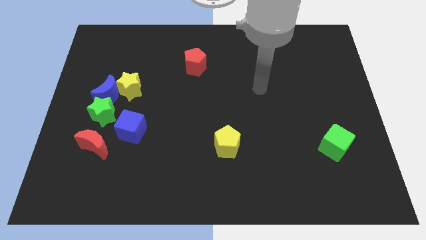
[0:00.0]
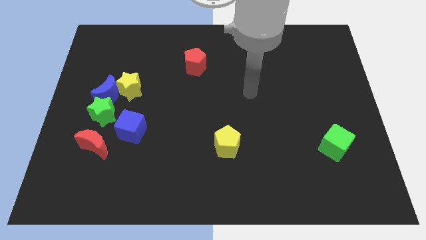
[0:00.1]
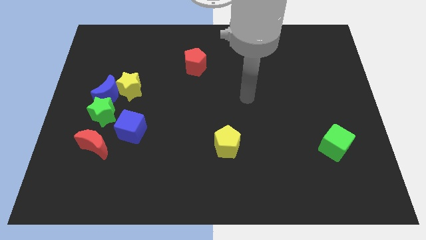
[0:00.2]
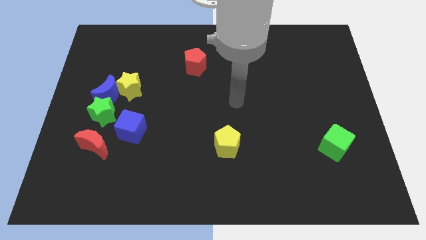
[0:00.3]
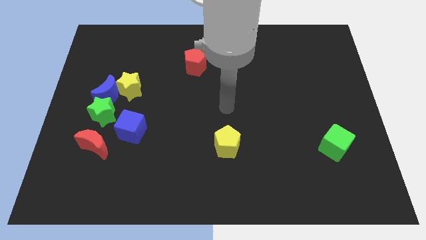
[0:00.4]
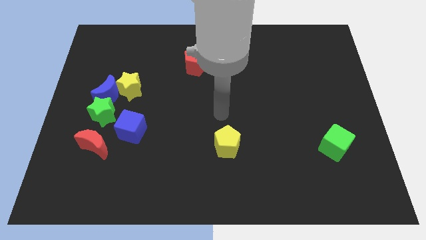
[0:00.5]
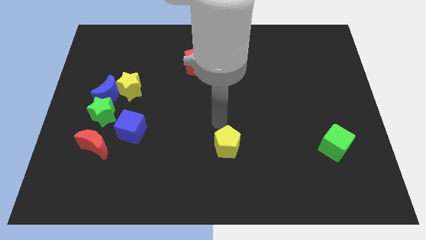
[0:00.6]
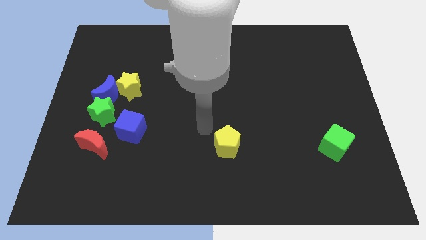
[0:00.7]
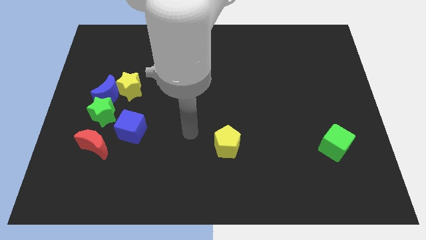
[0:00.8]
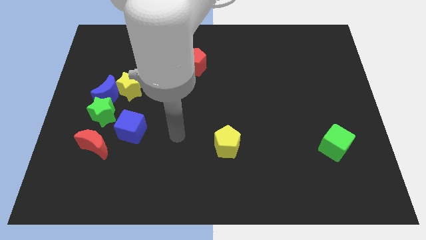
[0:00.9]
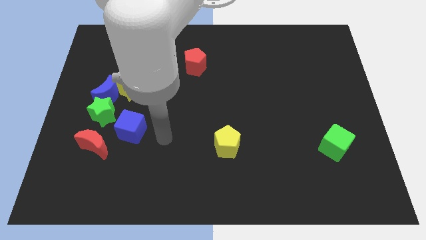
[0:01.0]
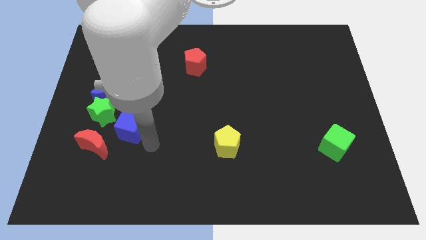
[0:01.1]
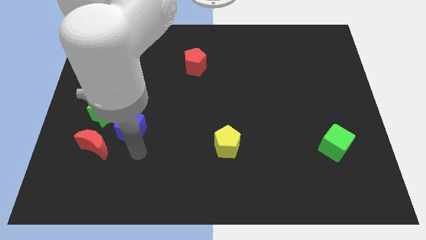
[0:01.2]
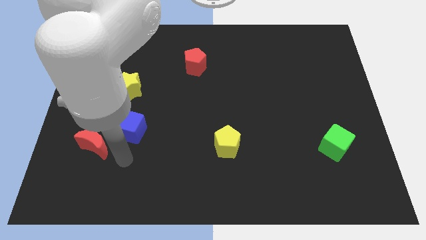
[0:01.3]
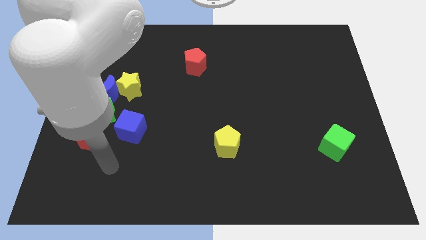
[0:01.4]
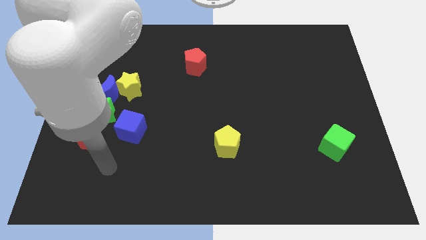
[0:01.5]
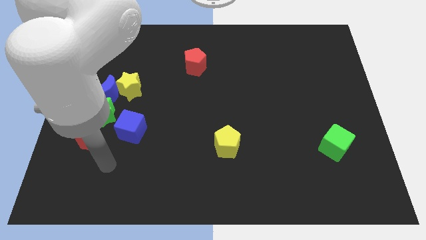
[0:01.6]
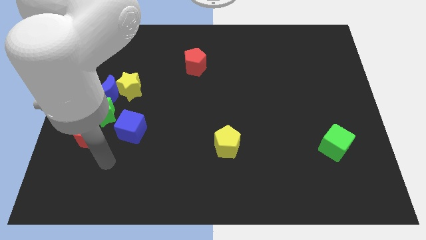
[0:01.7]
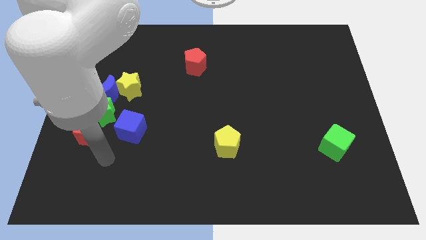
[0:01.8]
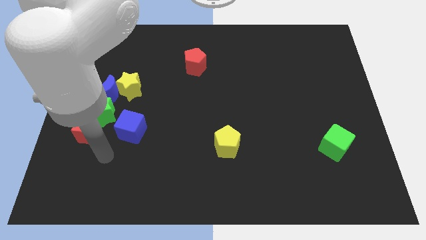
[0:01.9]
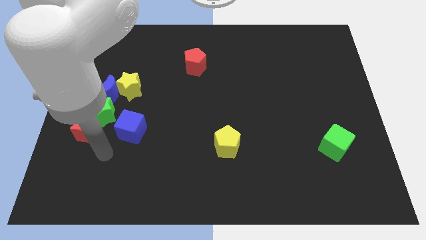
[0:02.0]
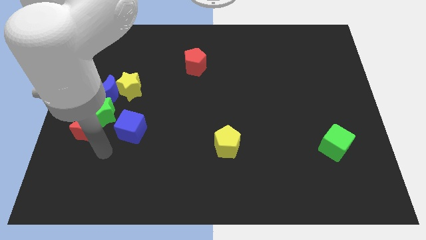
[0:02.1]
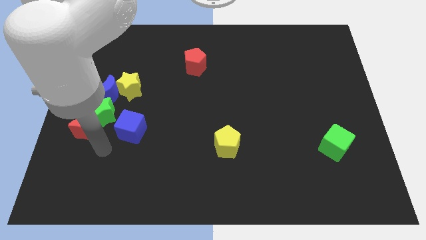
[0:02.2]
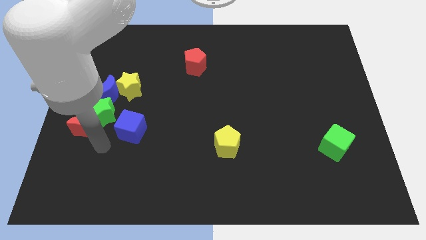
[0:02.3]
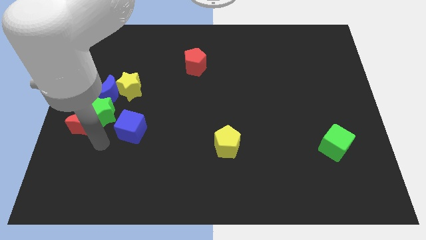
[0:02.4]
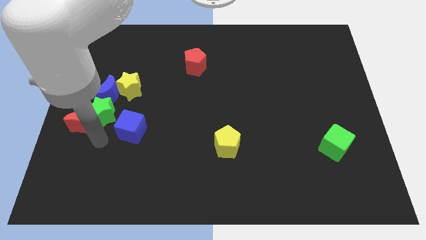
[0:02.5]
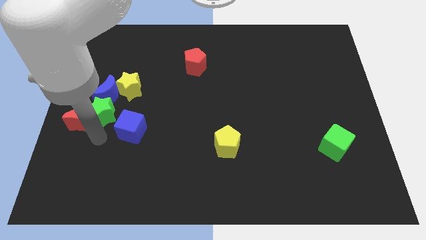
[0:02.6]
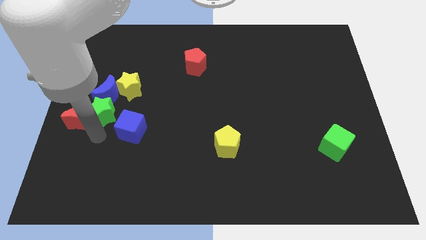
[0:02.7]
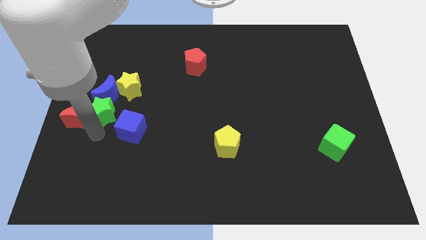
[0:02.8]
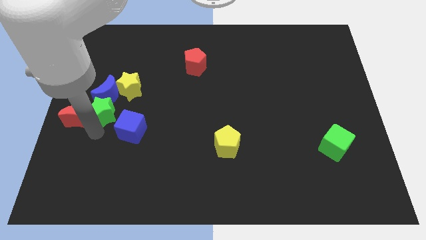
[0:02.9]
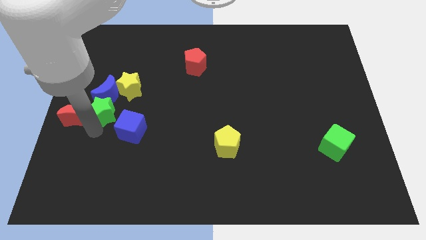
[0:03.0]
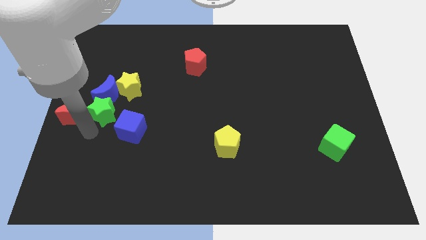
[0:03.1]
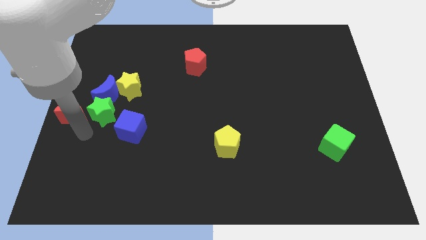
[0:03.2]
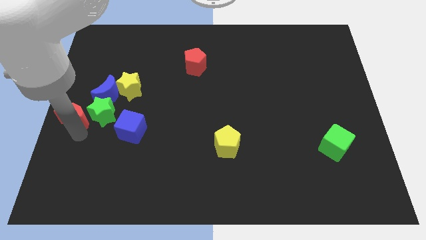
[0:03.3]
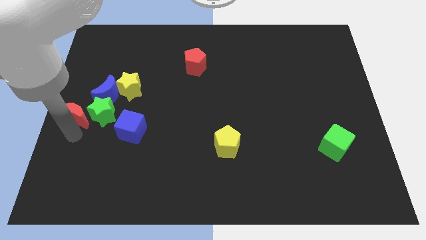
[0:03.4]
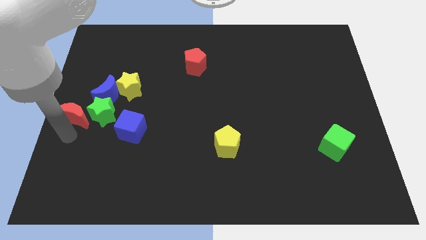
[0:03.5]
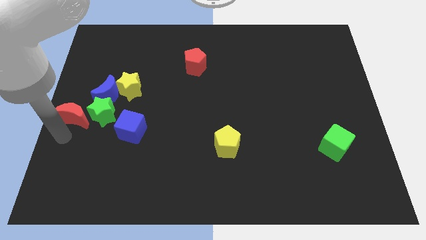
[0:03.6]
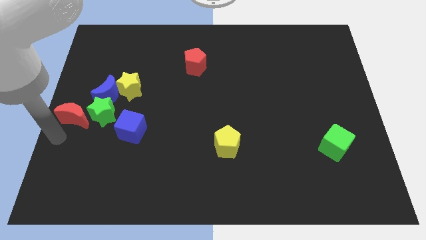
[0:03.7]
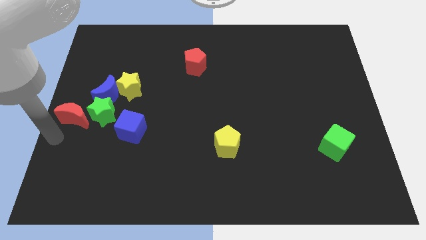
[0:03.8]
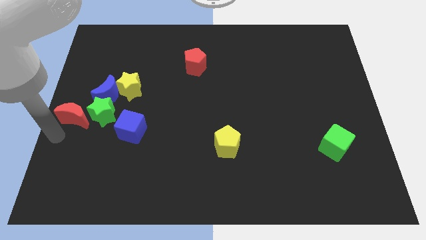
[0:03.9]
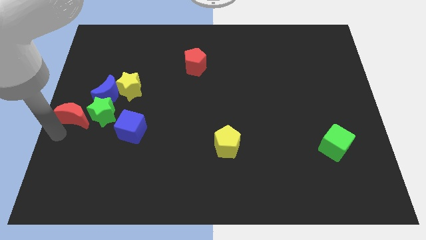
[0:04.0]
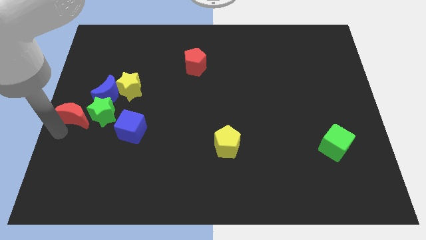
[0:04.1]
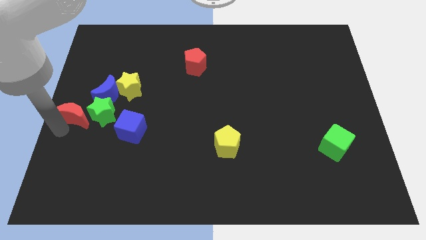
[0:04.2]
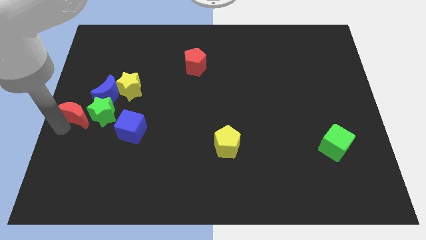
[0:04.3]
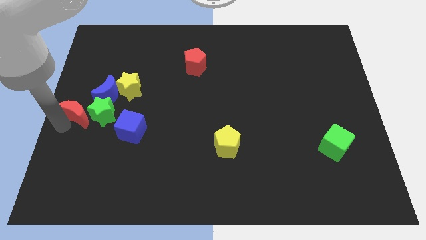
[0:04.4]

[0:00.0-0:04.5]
slide the red moon a bit up

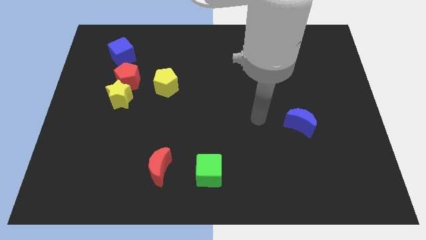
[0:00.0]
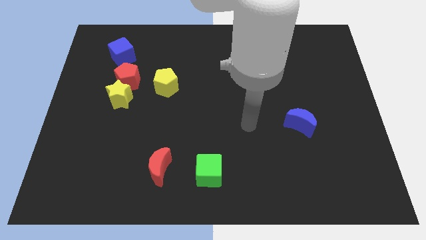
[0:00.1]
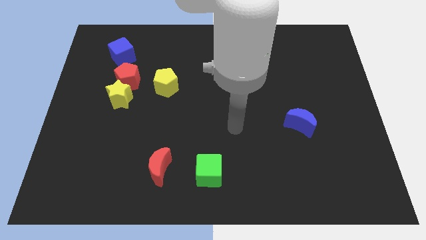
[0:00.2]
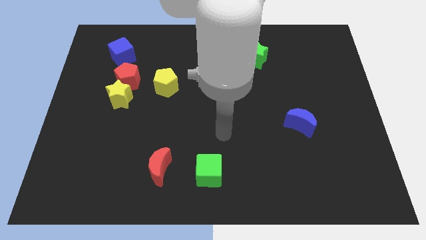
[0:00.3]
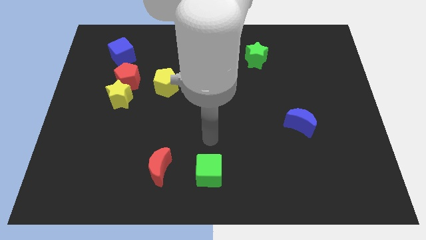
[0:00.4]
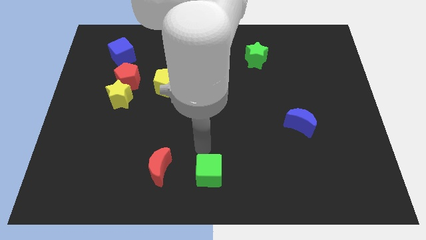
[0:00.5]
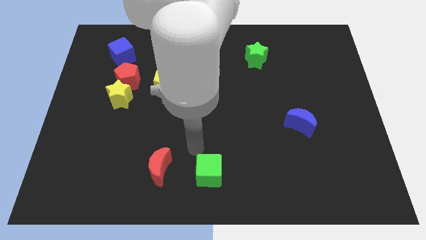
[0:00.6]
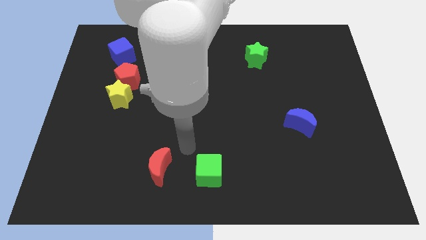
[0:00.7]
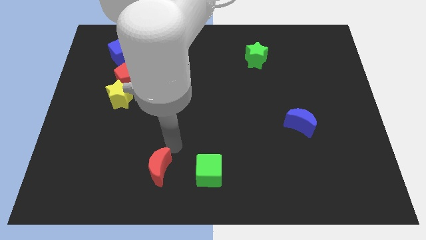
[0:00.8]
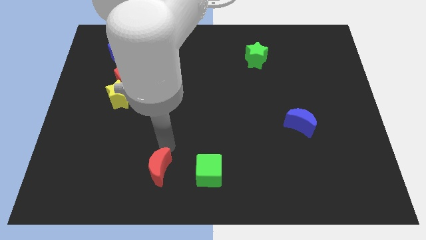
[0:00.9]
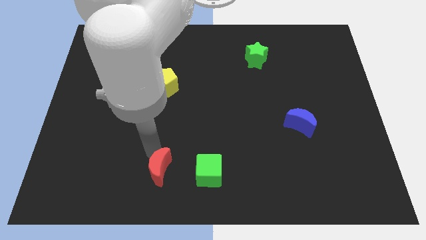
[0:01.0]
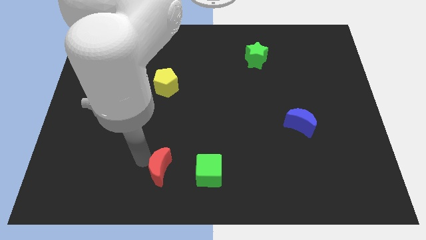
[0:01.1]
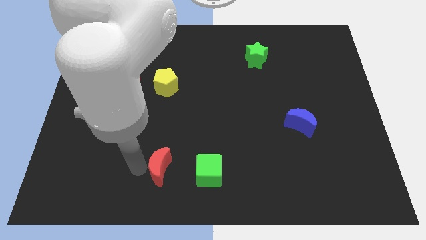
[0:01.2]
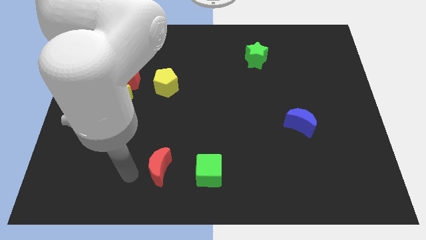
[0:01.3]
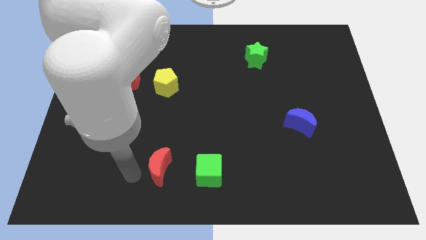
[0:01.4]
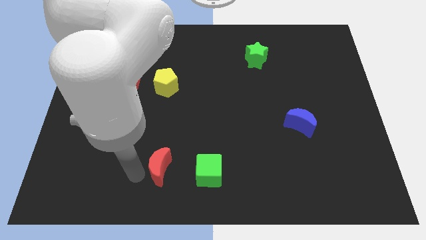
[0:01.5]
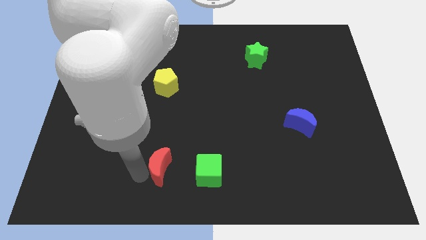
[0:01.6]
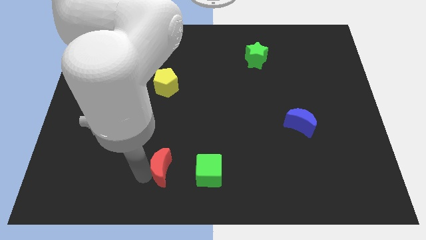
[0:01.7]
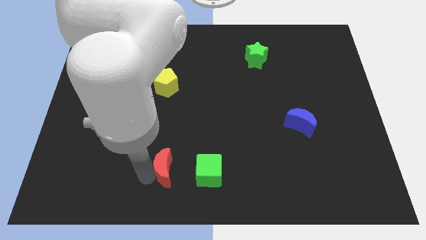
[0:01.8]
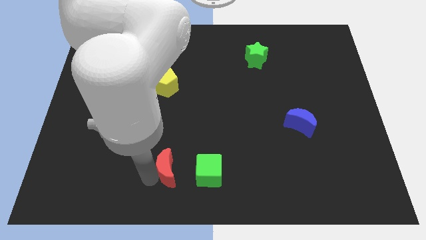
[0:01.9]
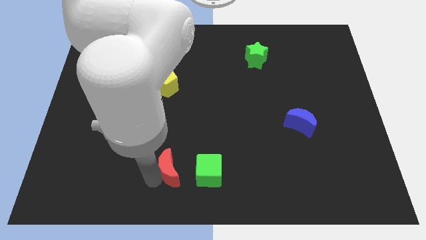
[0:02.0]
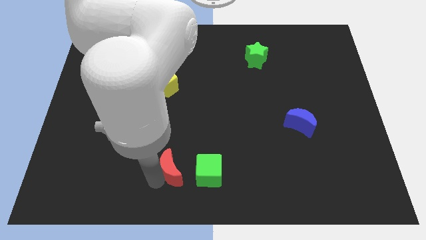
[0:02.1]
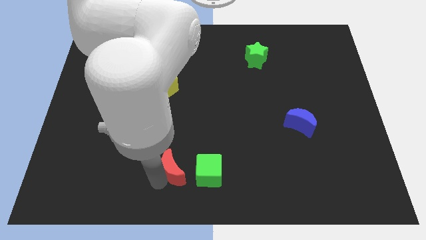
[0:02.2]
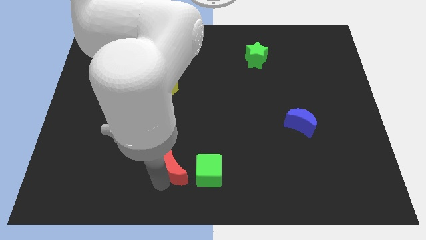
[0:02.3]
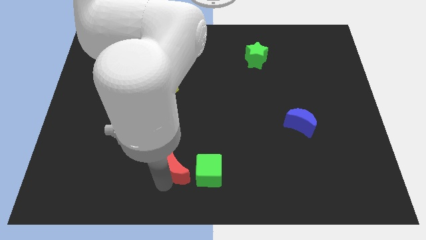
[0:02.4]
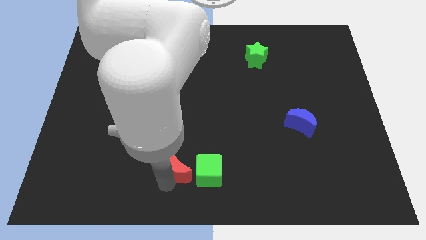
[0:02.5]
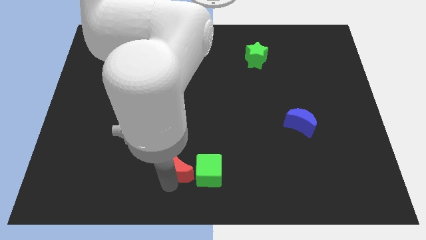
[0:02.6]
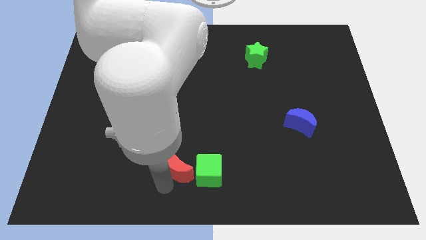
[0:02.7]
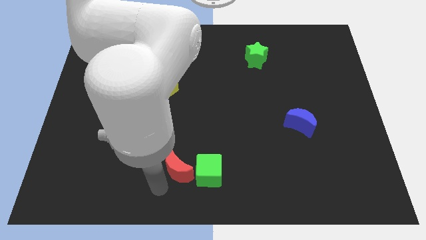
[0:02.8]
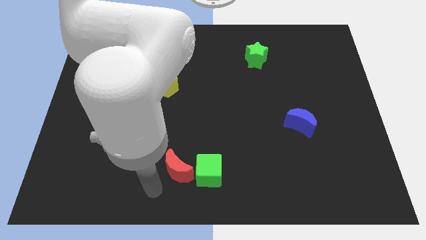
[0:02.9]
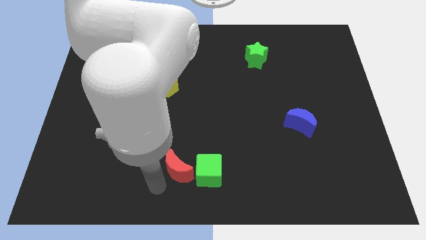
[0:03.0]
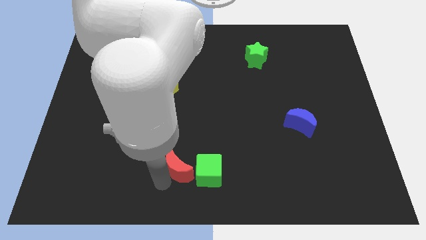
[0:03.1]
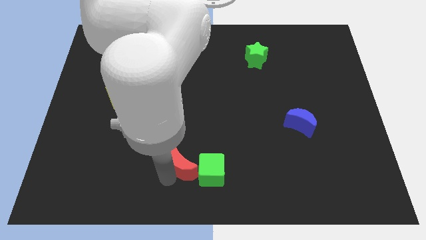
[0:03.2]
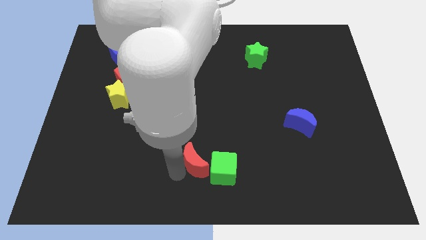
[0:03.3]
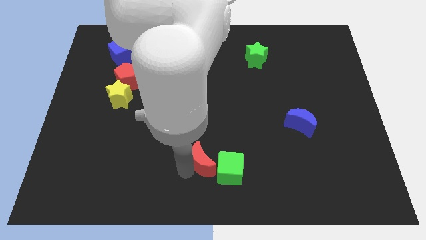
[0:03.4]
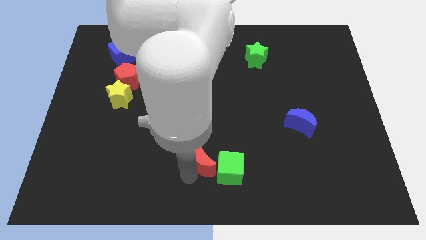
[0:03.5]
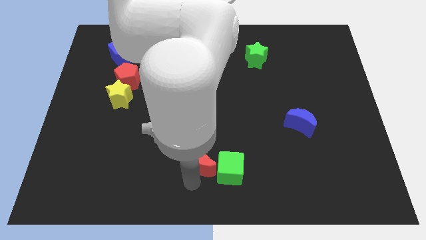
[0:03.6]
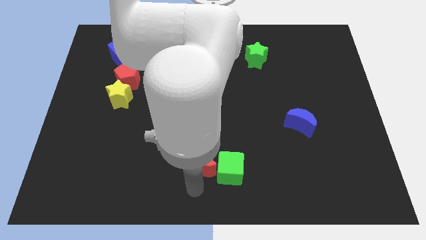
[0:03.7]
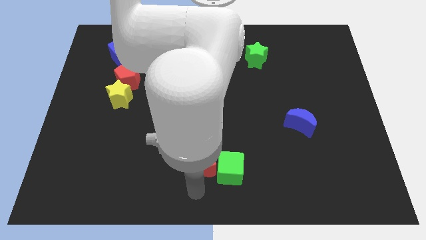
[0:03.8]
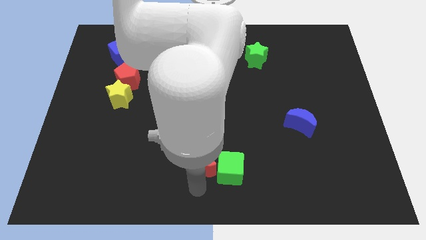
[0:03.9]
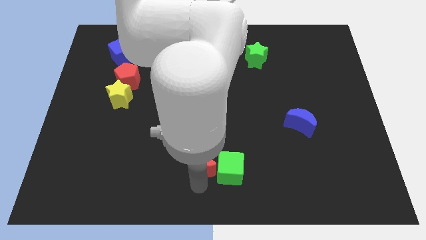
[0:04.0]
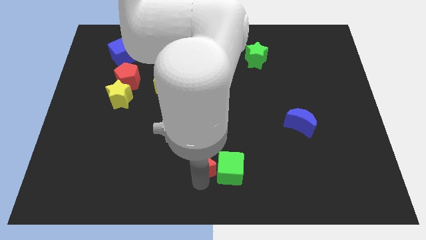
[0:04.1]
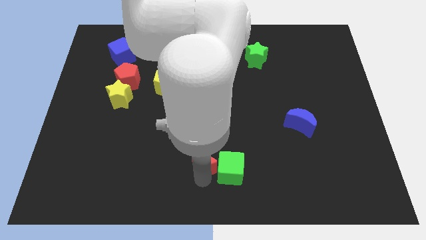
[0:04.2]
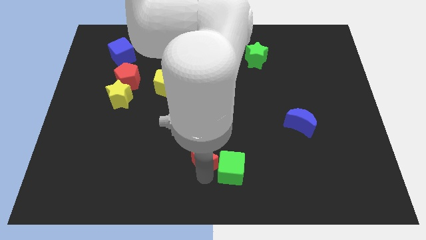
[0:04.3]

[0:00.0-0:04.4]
push the red moon slightly up and to the right
